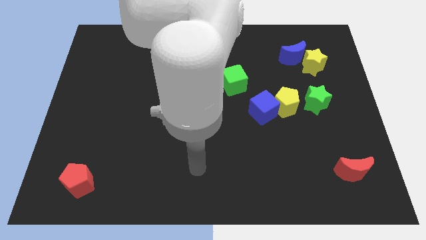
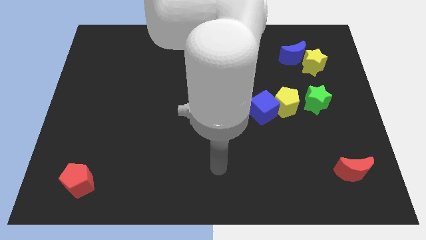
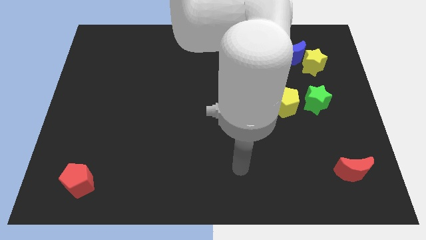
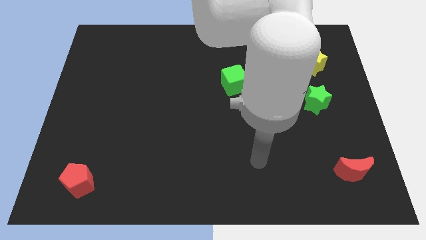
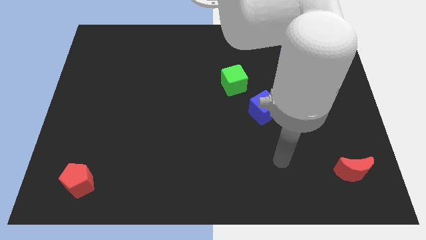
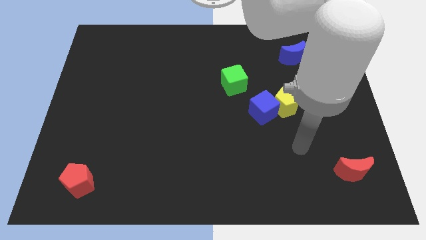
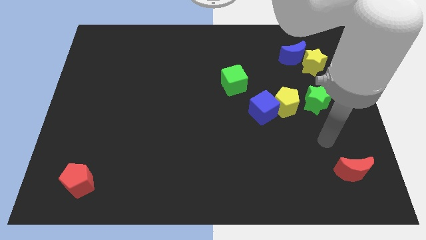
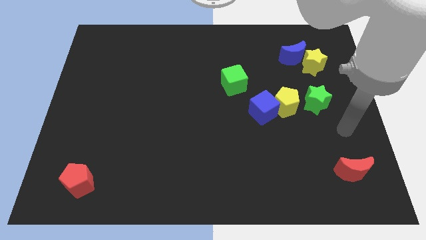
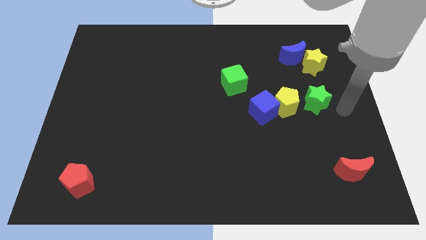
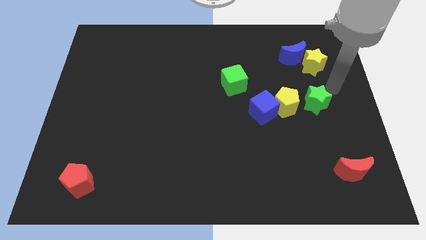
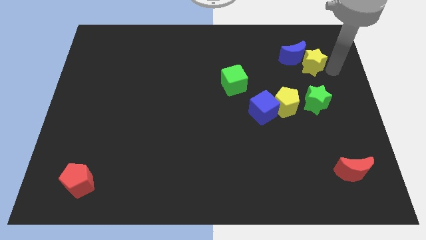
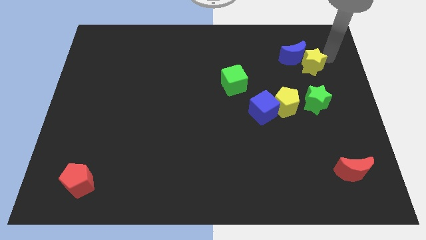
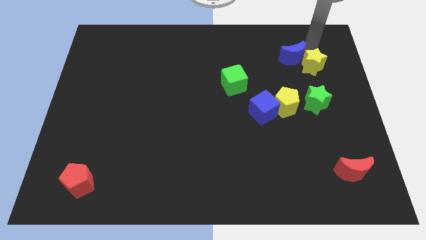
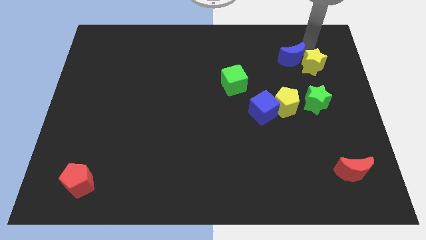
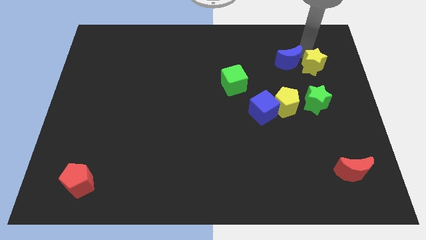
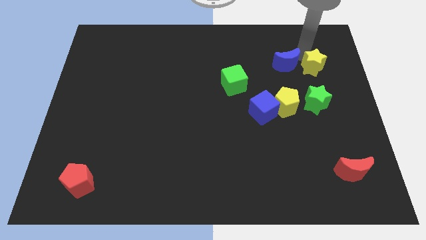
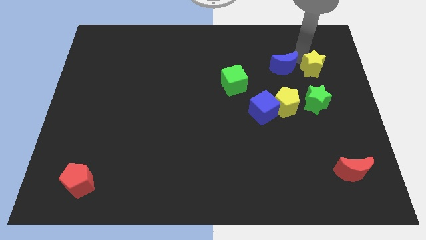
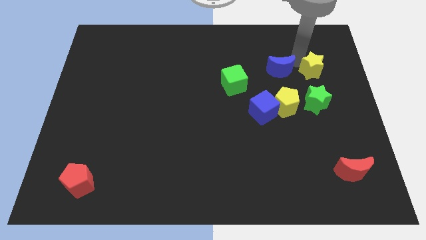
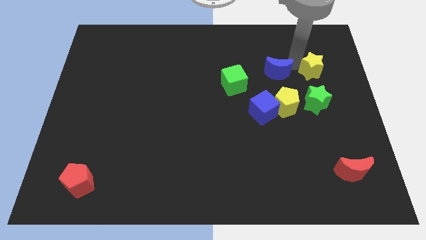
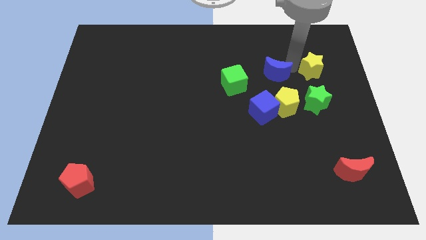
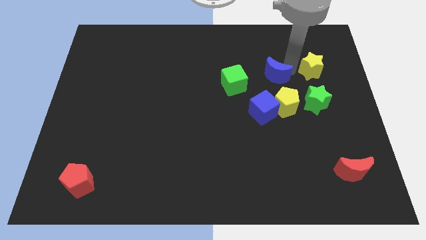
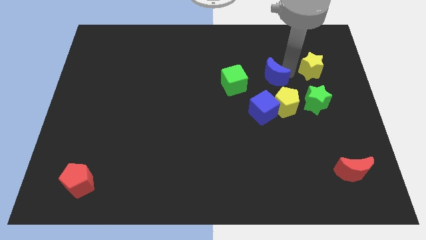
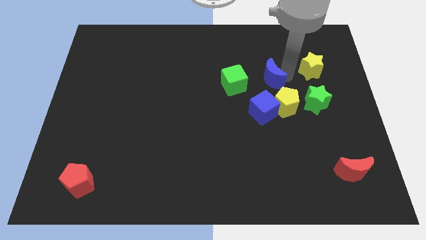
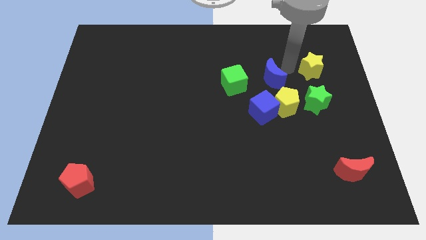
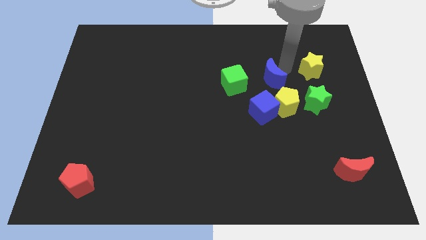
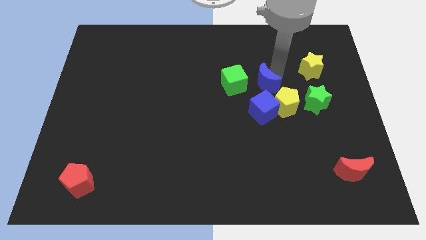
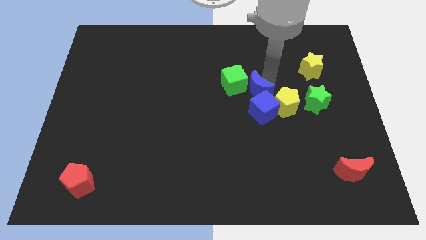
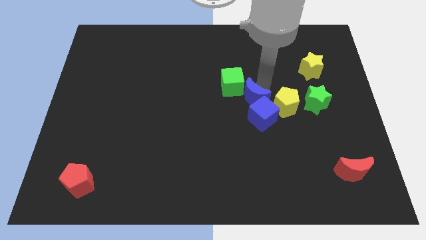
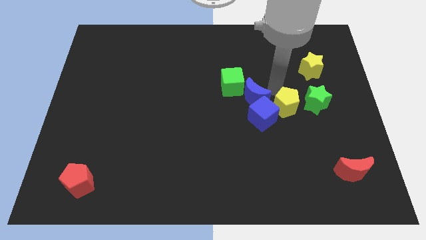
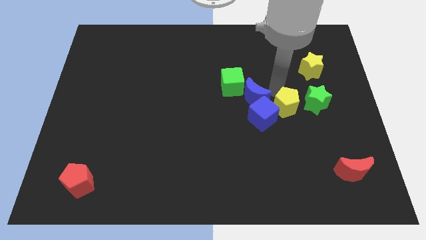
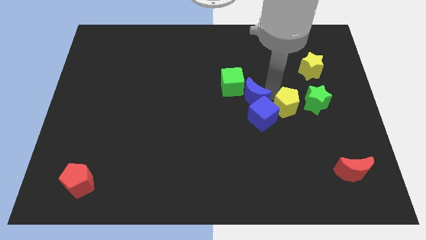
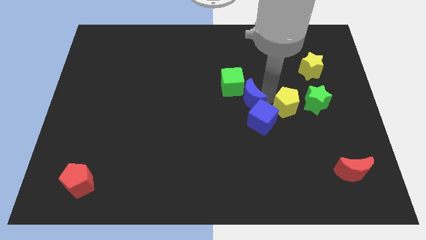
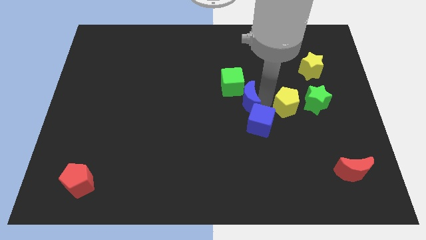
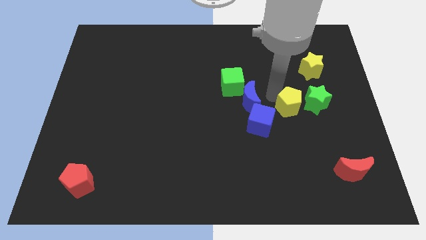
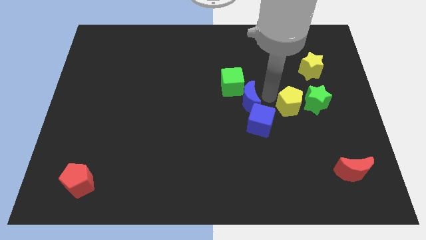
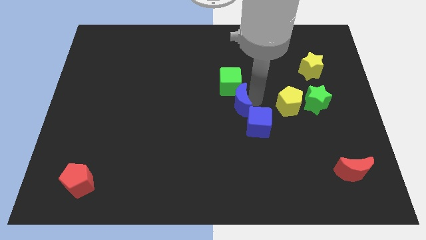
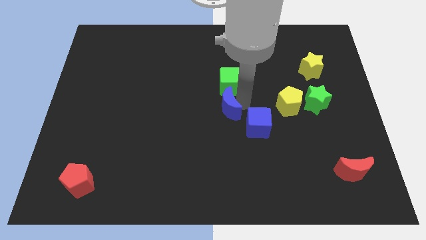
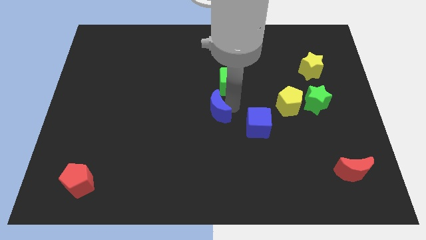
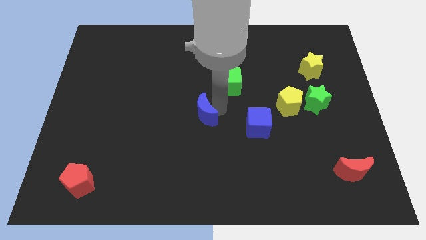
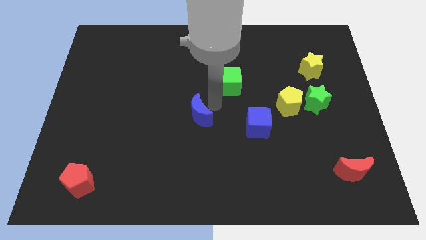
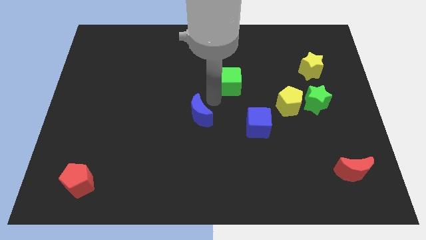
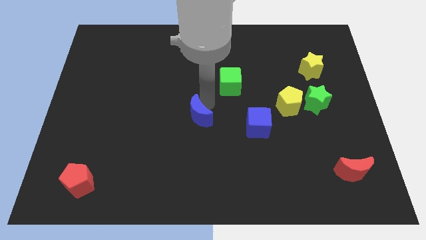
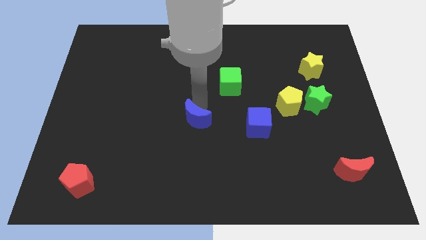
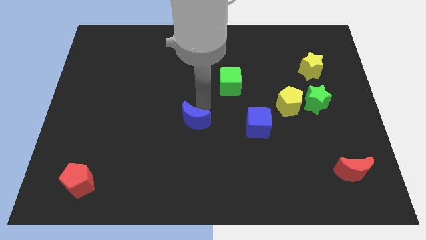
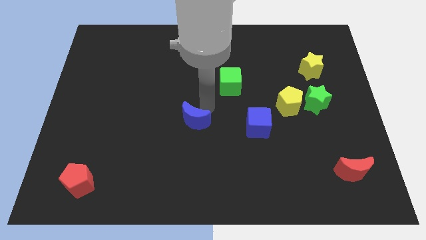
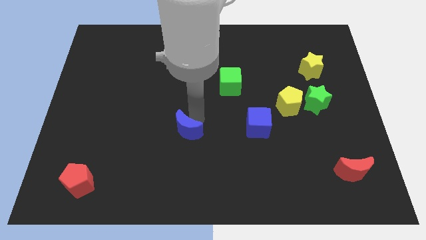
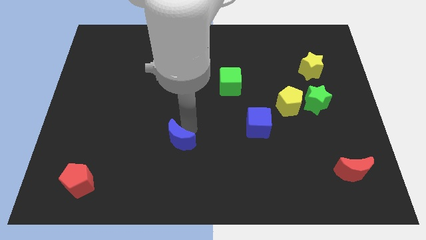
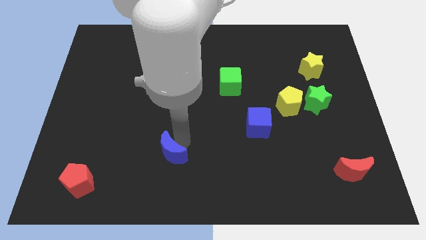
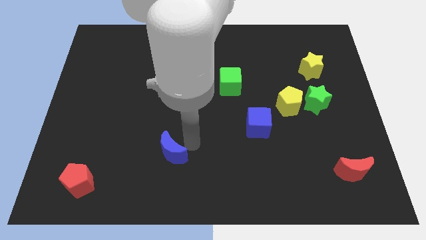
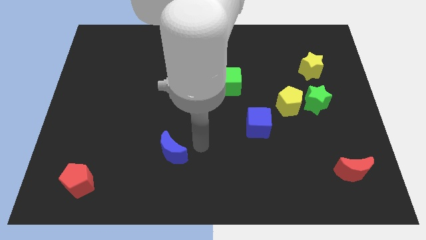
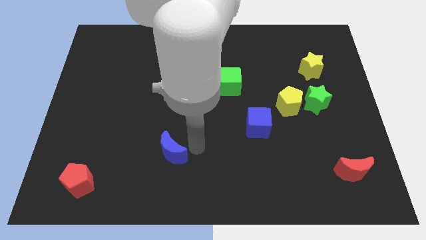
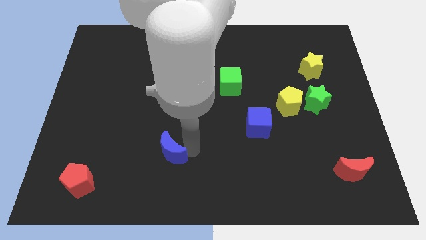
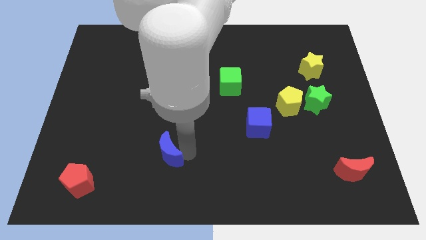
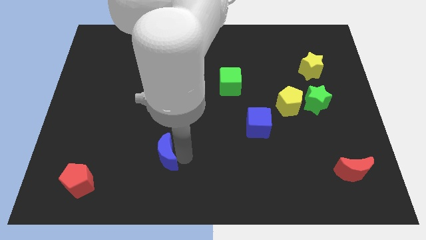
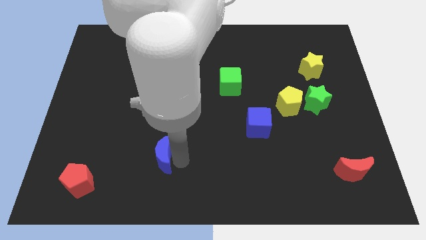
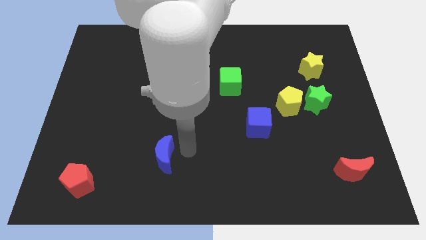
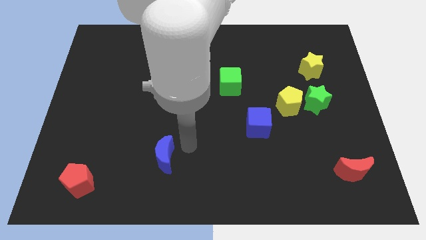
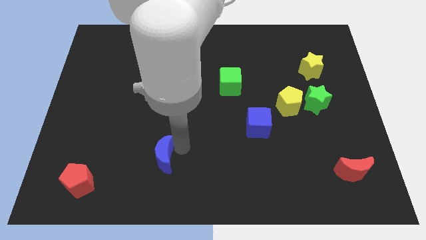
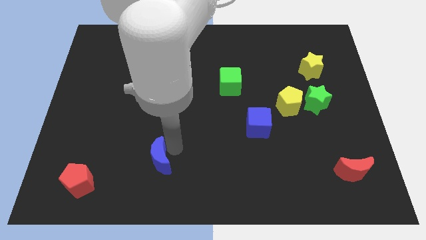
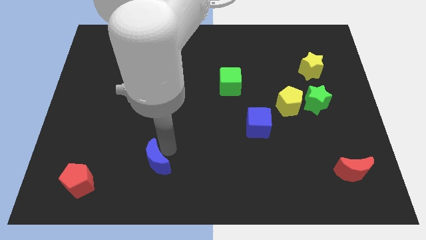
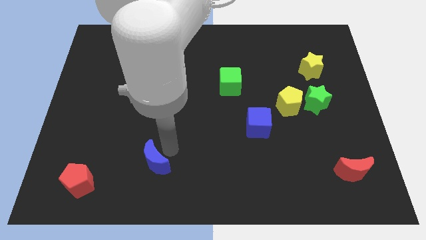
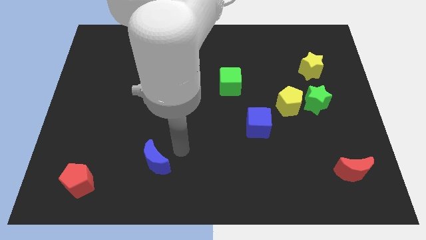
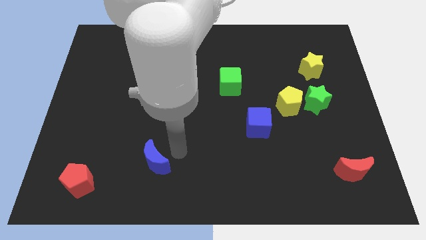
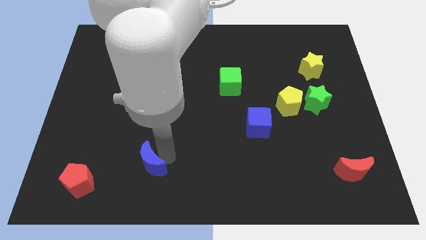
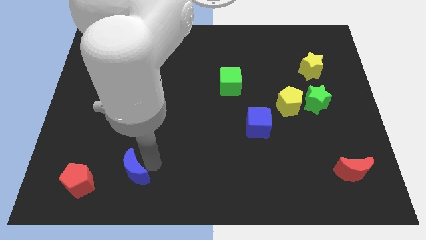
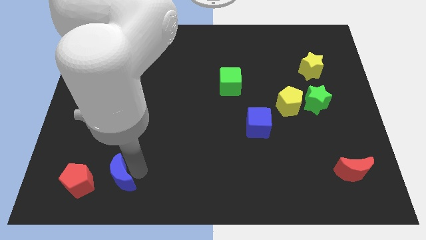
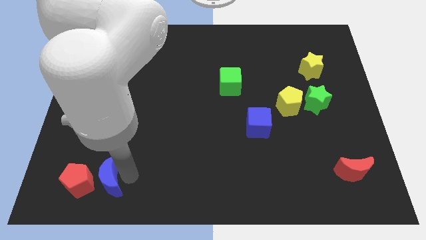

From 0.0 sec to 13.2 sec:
put the blue moon close to the red pentagon
